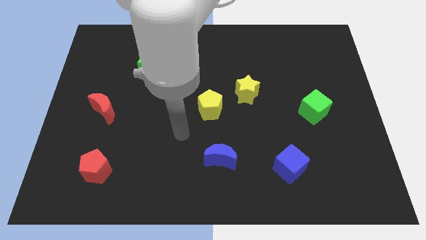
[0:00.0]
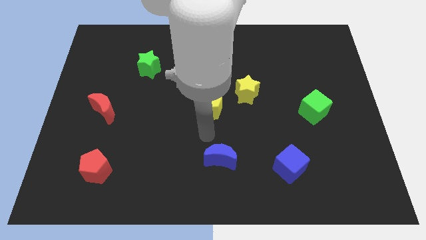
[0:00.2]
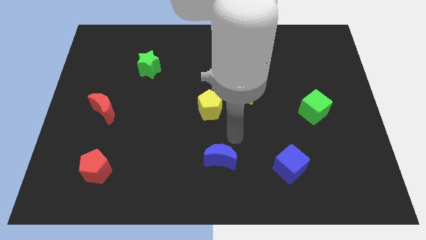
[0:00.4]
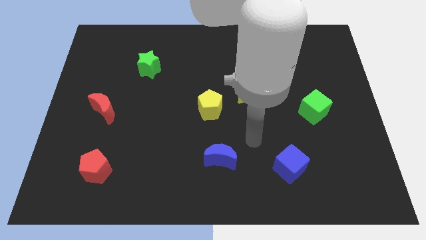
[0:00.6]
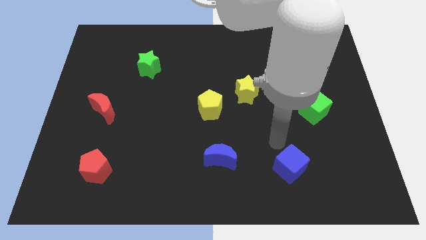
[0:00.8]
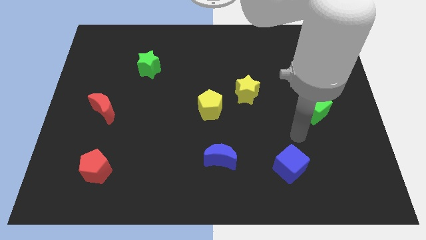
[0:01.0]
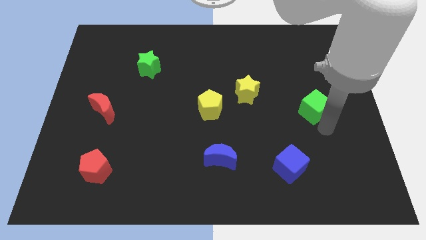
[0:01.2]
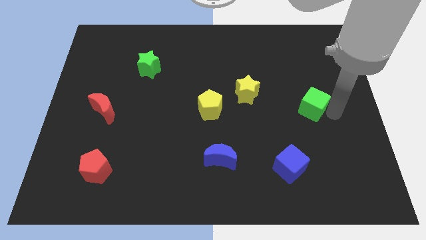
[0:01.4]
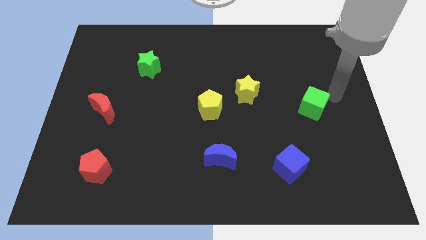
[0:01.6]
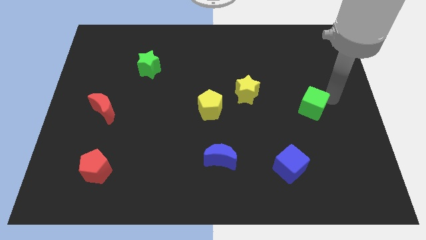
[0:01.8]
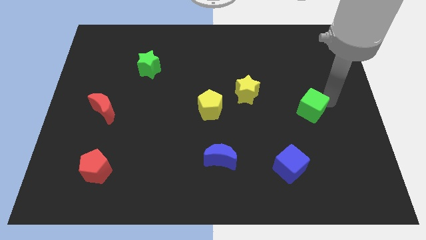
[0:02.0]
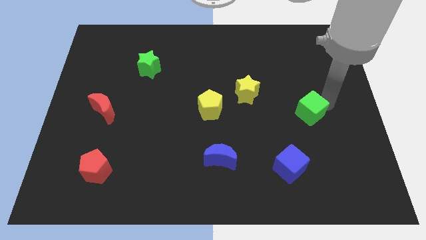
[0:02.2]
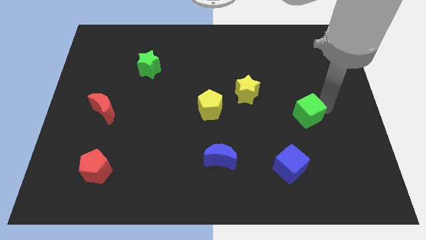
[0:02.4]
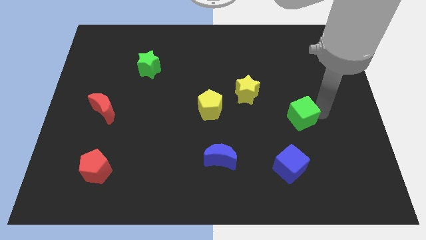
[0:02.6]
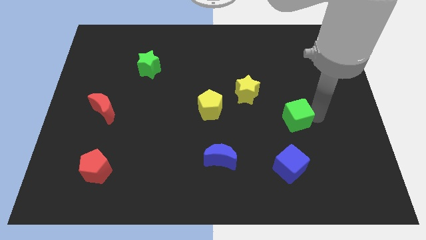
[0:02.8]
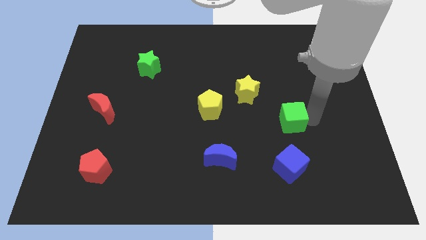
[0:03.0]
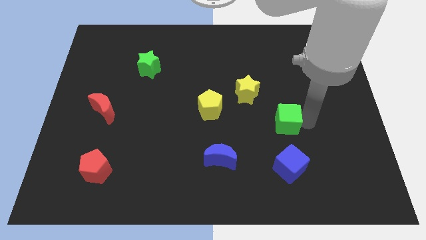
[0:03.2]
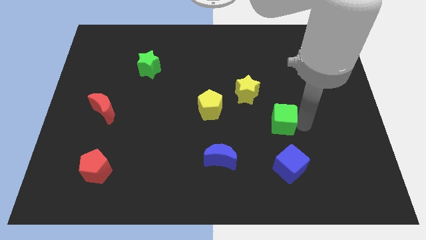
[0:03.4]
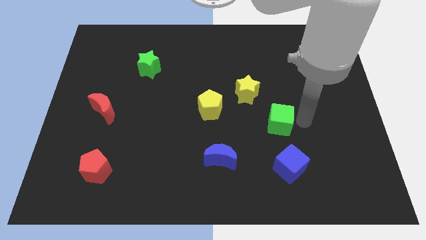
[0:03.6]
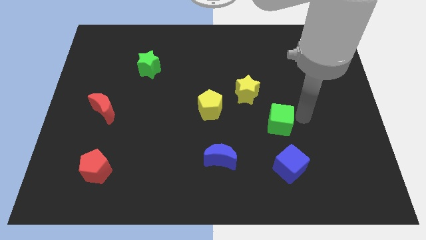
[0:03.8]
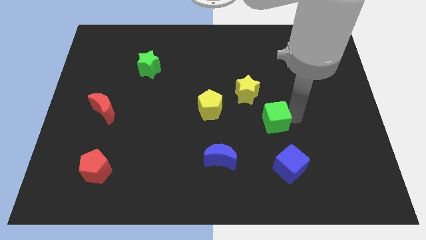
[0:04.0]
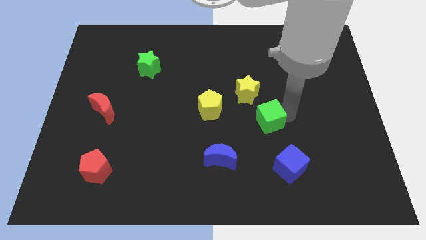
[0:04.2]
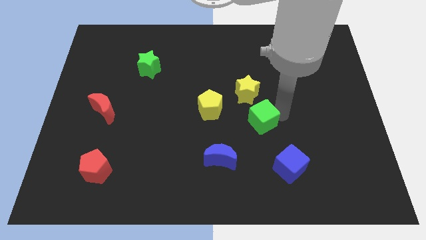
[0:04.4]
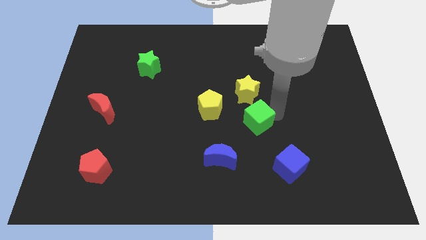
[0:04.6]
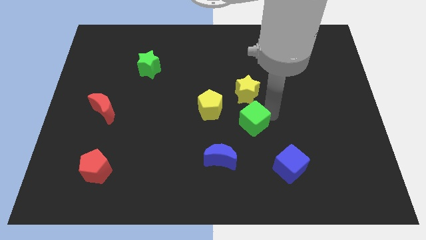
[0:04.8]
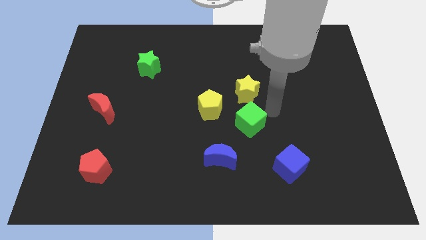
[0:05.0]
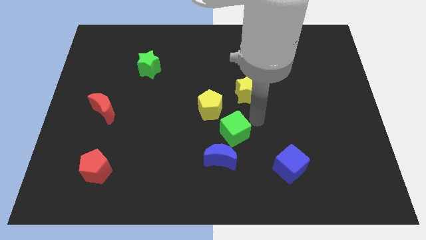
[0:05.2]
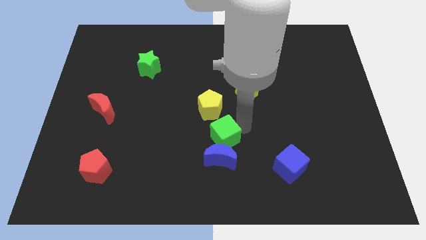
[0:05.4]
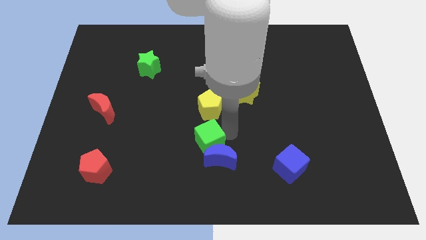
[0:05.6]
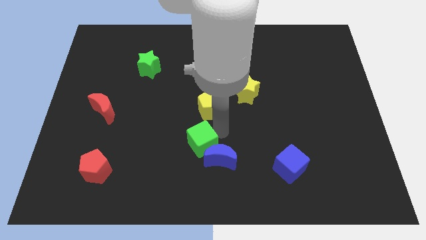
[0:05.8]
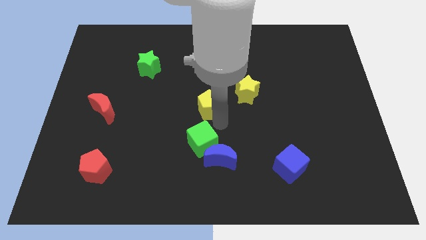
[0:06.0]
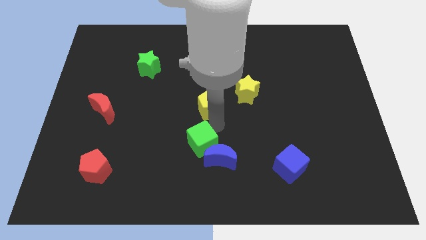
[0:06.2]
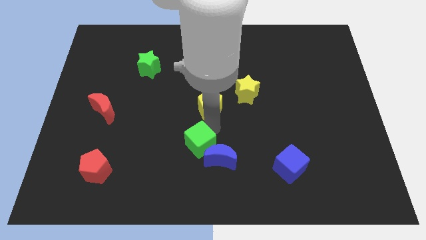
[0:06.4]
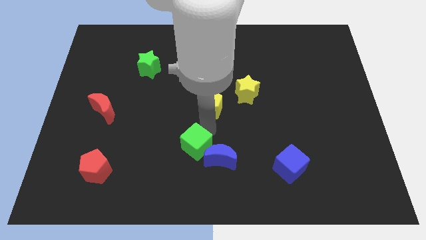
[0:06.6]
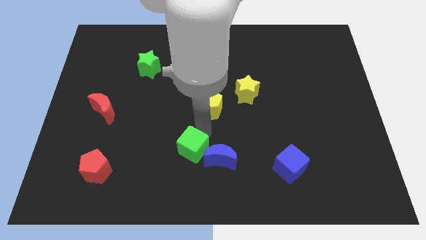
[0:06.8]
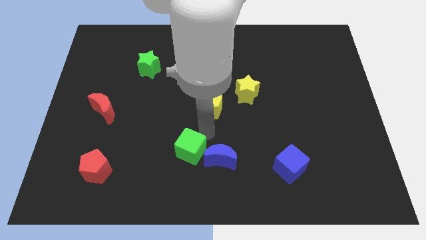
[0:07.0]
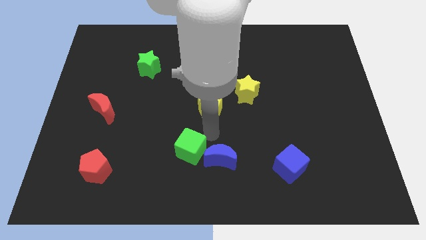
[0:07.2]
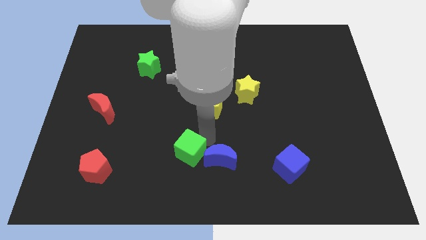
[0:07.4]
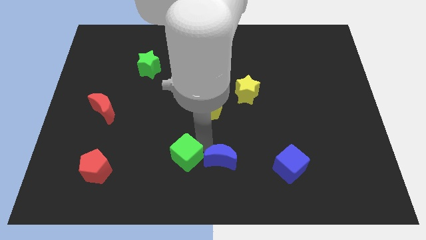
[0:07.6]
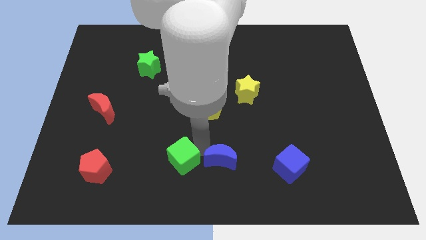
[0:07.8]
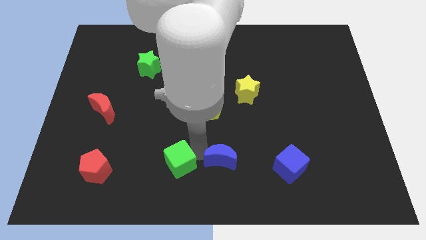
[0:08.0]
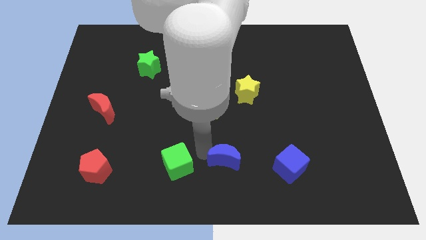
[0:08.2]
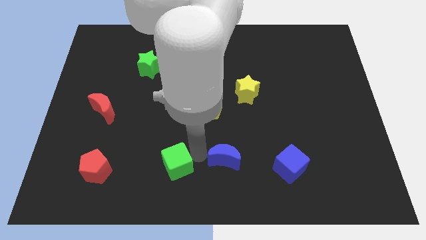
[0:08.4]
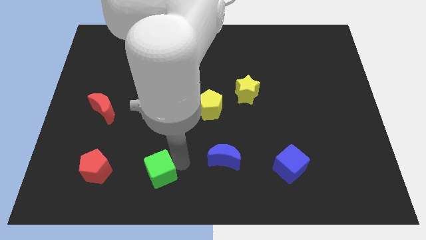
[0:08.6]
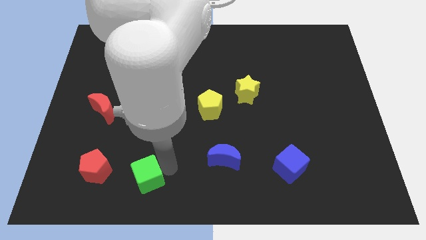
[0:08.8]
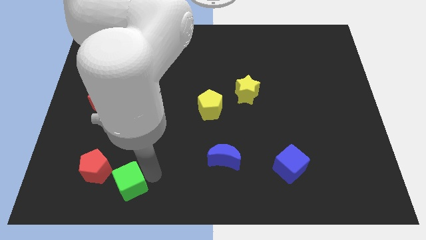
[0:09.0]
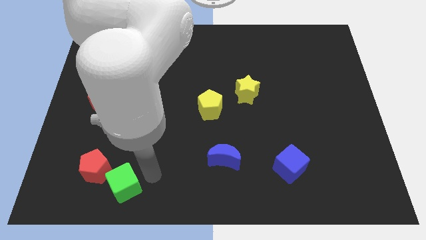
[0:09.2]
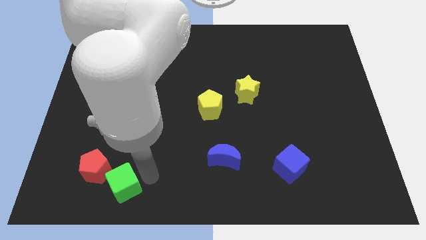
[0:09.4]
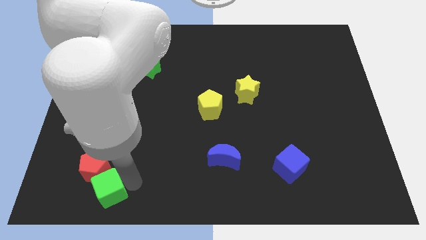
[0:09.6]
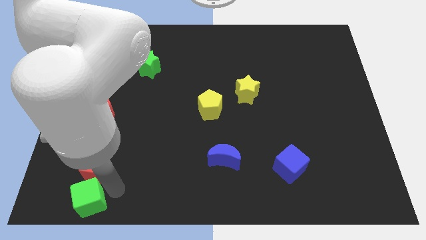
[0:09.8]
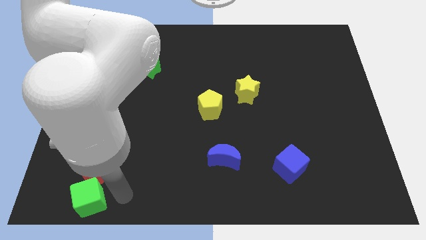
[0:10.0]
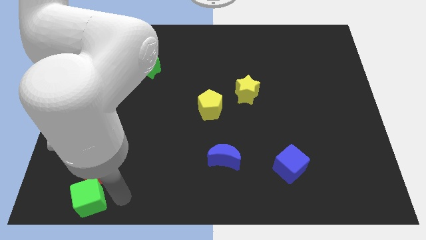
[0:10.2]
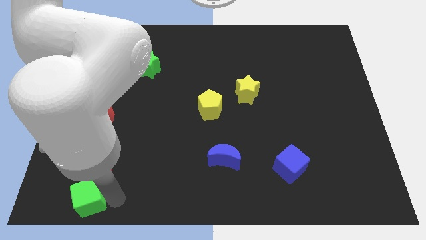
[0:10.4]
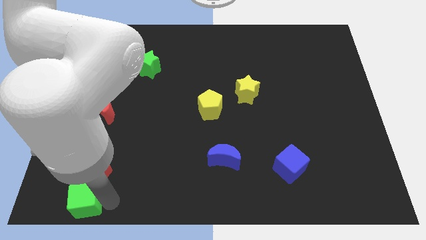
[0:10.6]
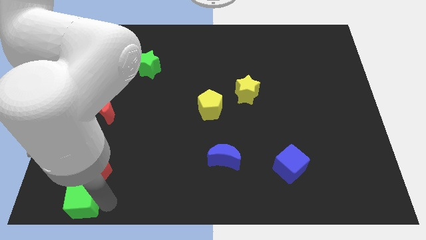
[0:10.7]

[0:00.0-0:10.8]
move the green cube to the lower left corner

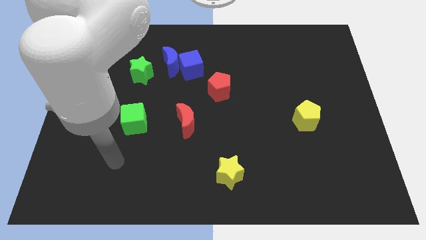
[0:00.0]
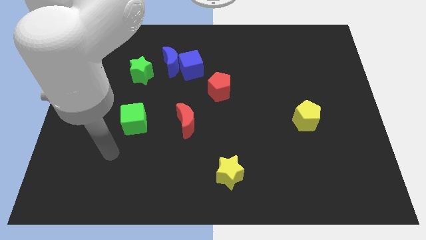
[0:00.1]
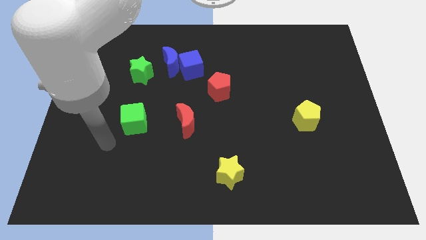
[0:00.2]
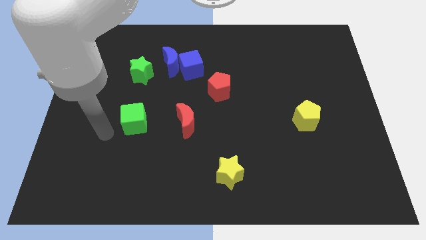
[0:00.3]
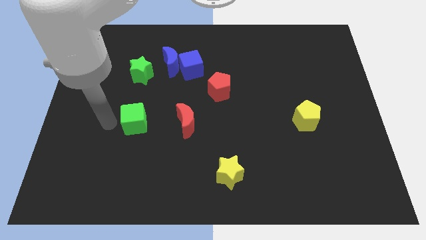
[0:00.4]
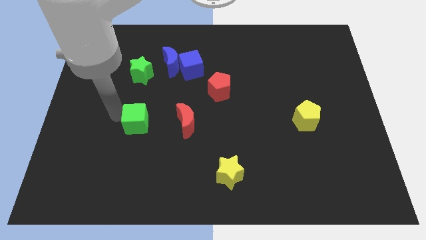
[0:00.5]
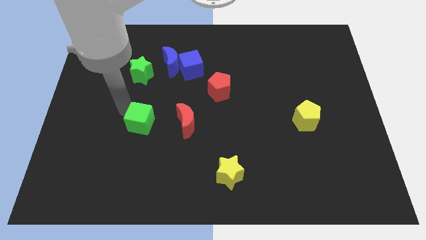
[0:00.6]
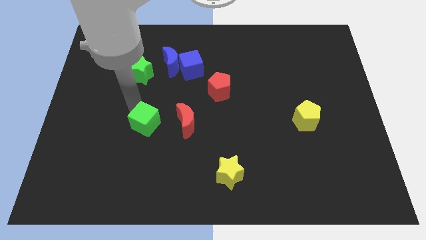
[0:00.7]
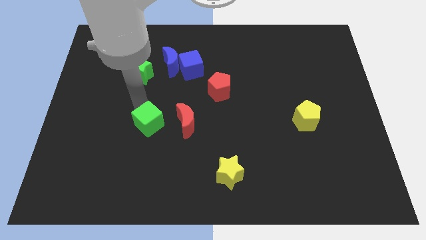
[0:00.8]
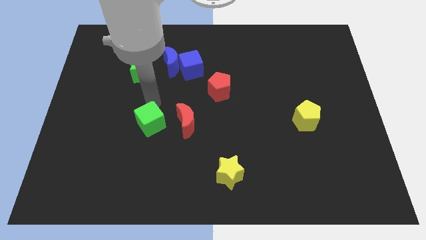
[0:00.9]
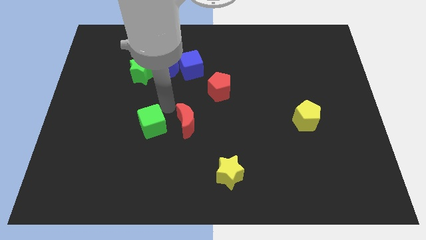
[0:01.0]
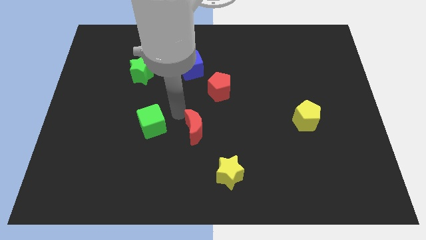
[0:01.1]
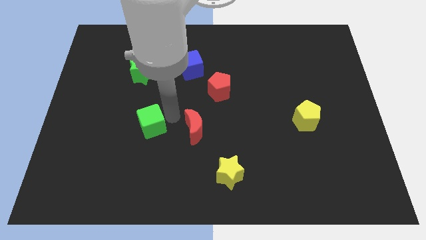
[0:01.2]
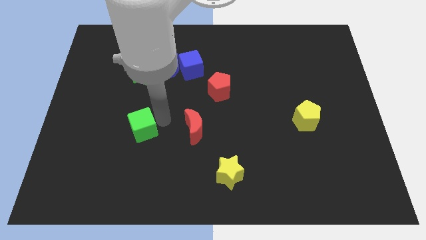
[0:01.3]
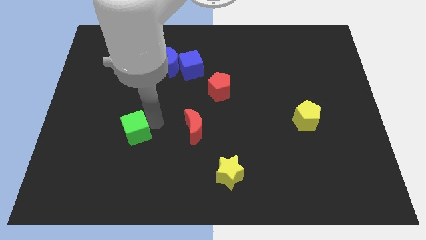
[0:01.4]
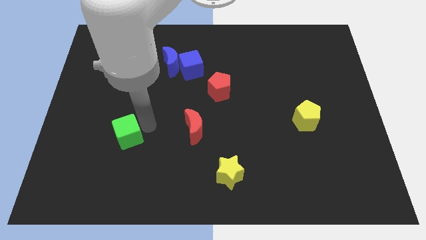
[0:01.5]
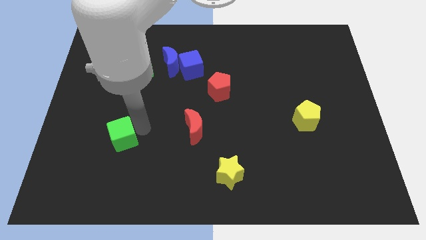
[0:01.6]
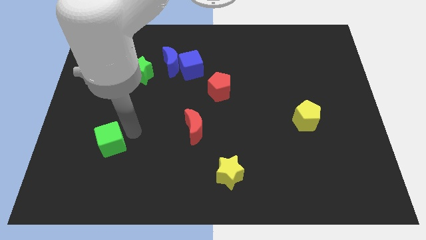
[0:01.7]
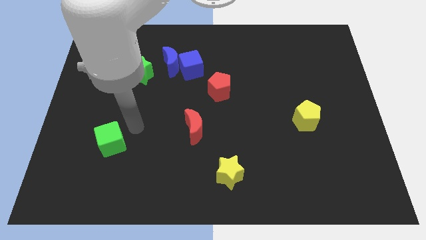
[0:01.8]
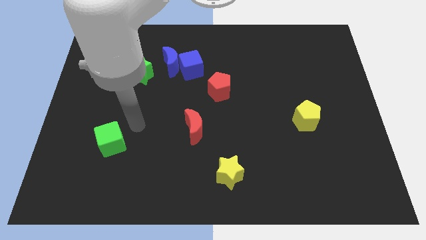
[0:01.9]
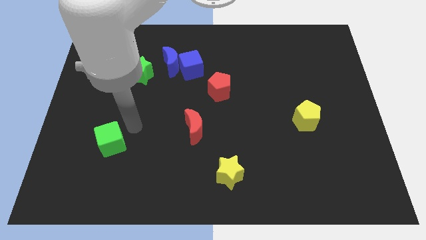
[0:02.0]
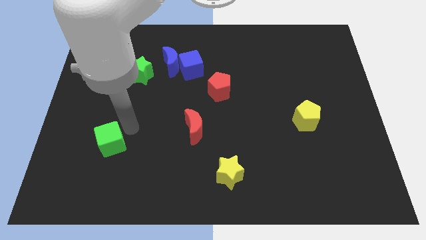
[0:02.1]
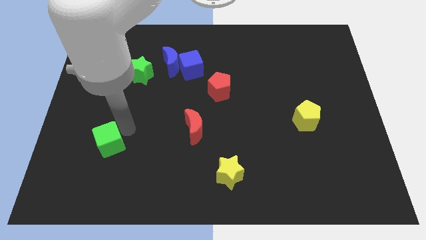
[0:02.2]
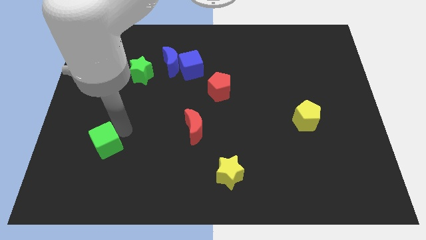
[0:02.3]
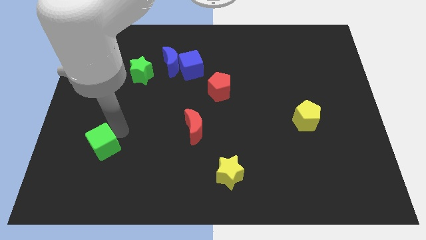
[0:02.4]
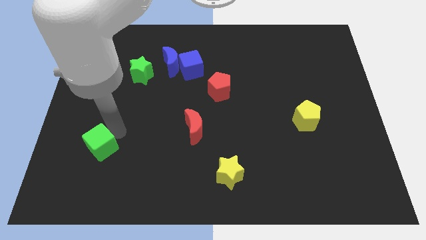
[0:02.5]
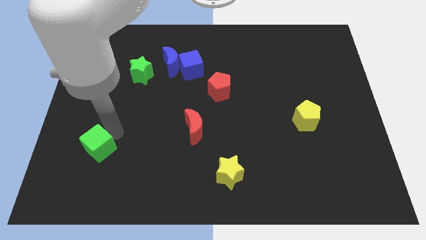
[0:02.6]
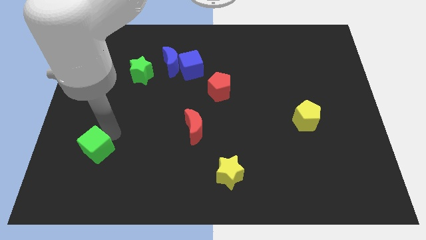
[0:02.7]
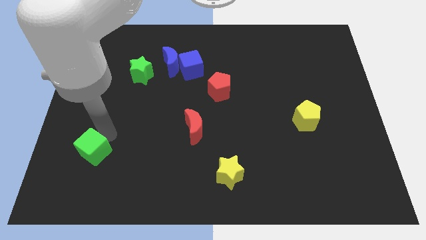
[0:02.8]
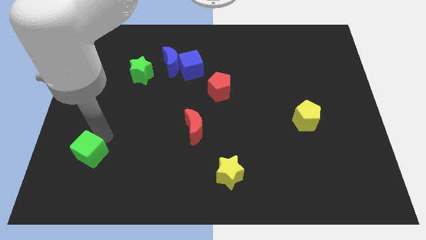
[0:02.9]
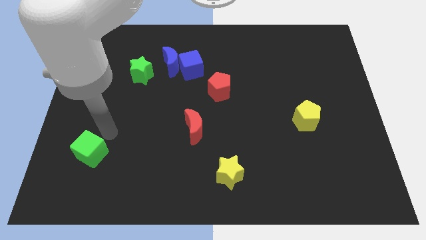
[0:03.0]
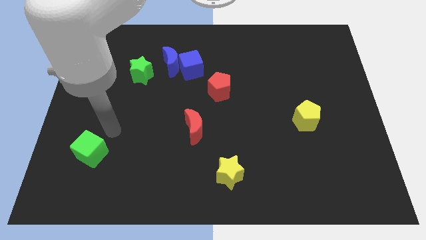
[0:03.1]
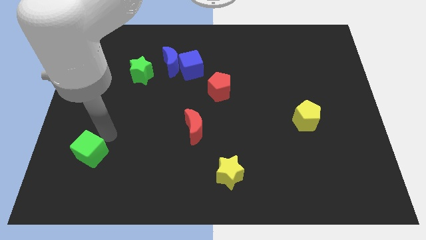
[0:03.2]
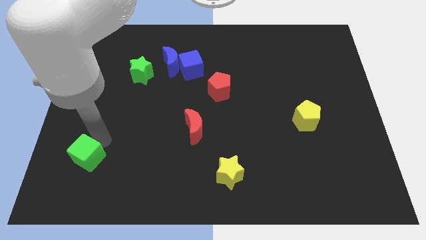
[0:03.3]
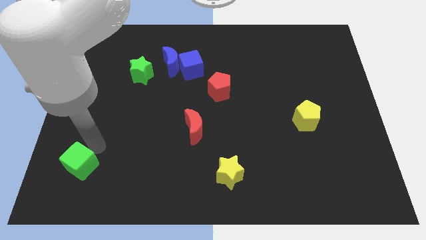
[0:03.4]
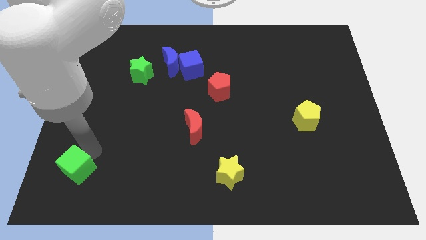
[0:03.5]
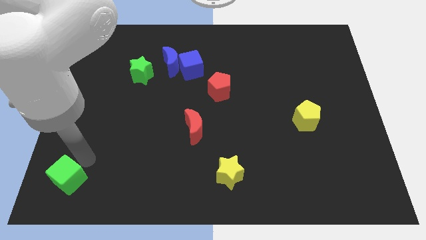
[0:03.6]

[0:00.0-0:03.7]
slide the green cube to the lower left corner
